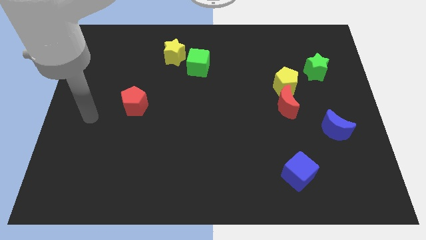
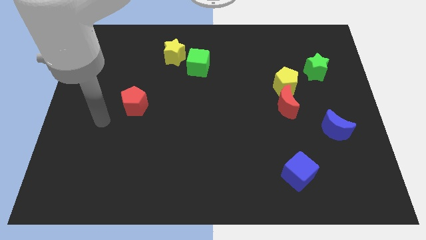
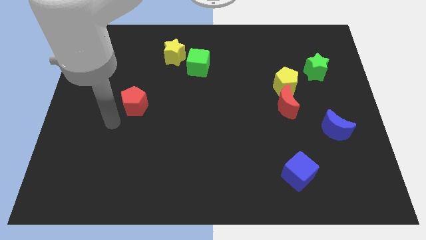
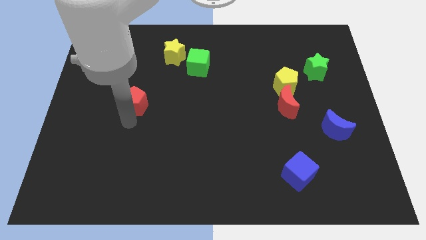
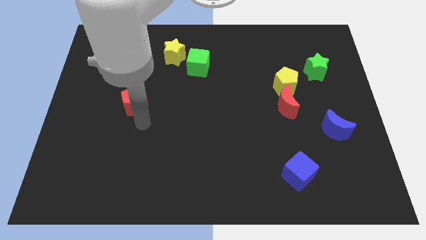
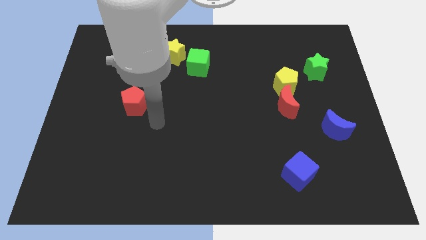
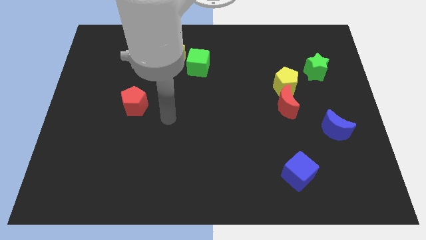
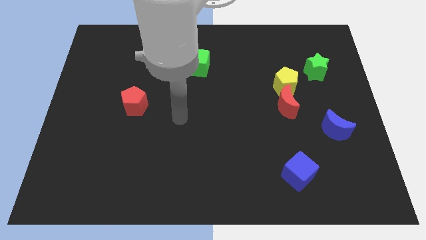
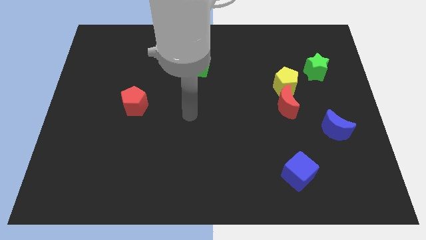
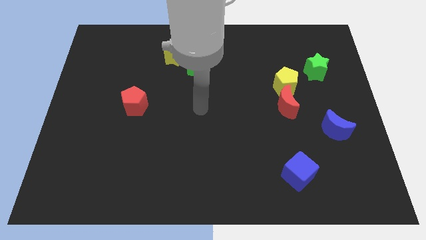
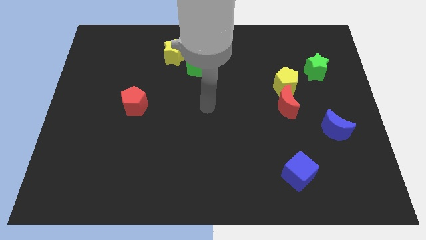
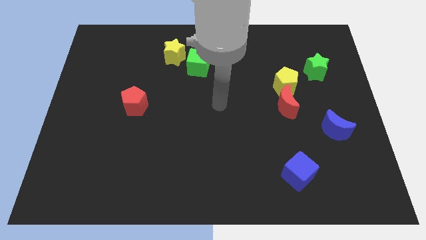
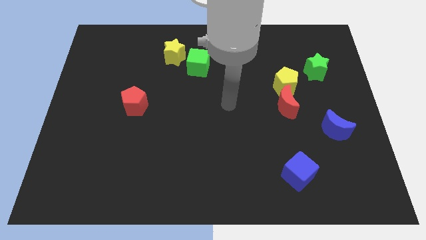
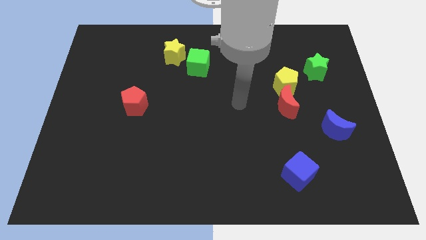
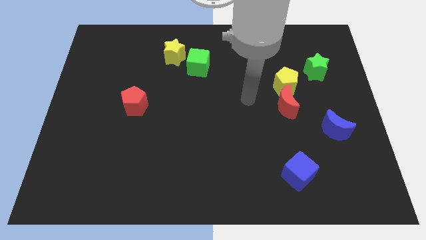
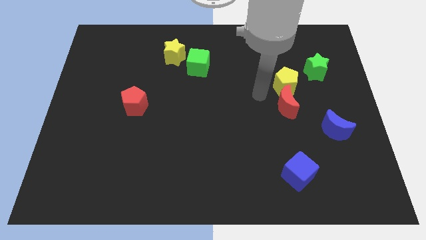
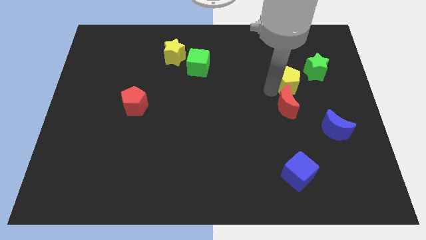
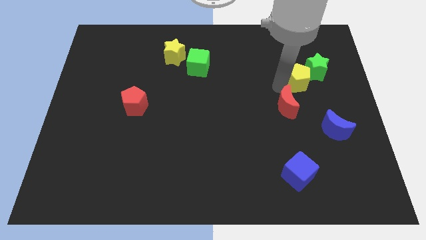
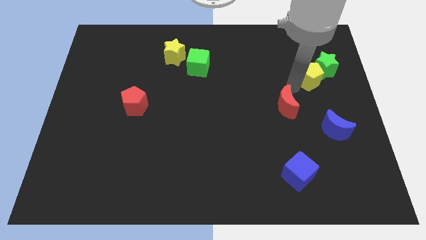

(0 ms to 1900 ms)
pull the red moon apart from the yellow pentagon

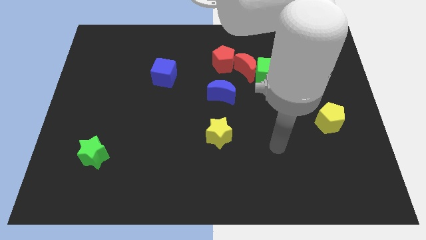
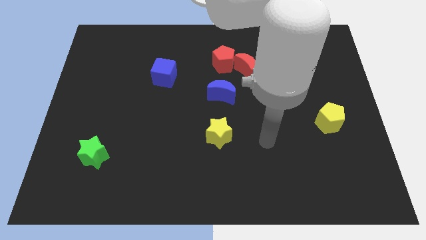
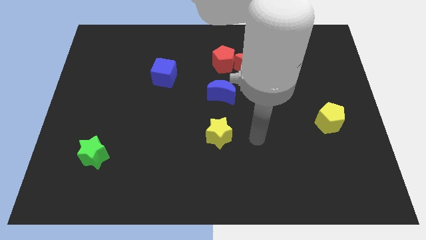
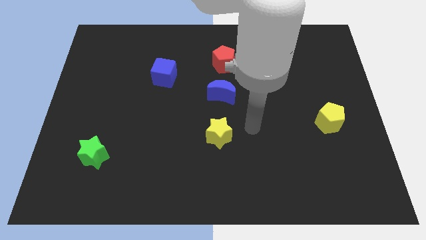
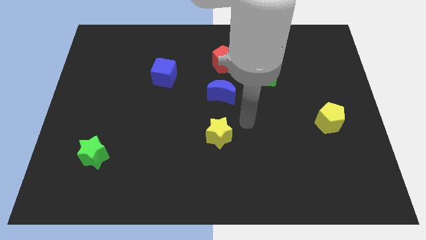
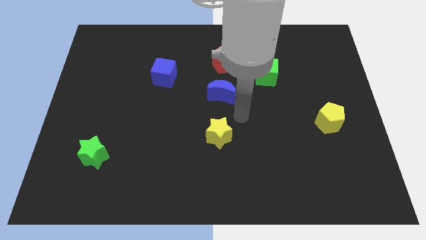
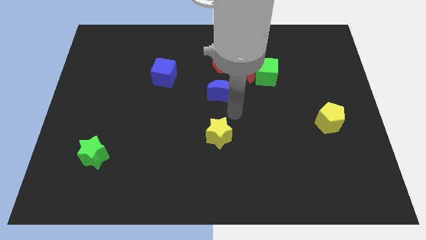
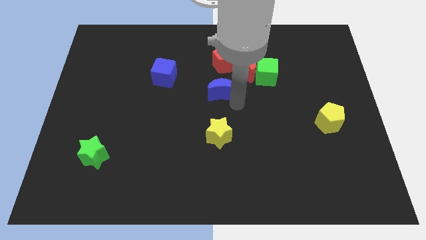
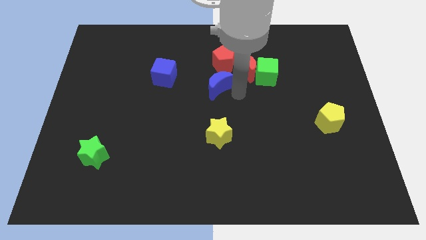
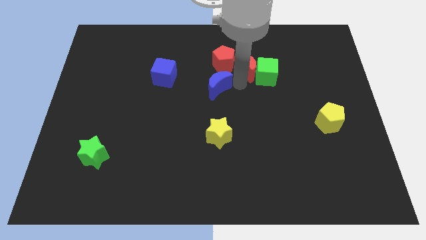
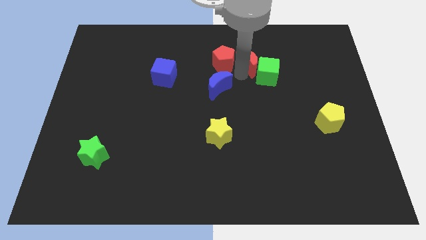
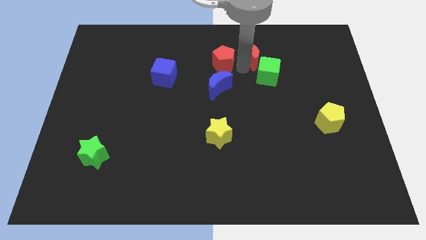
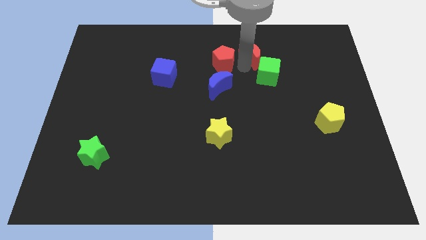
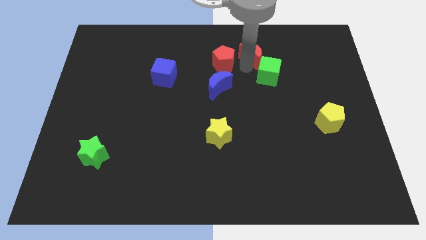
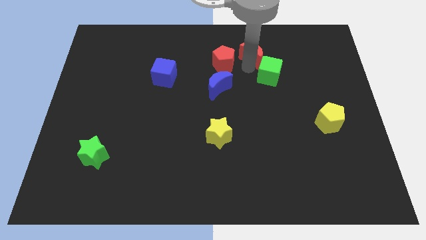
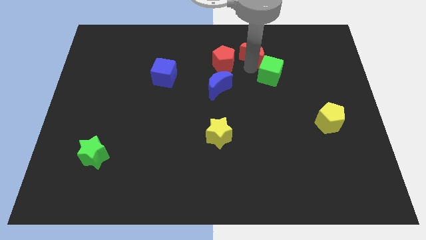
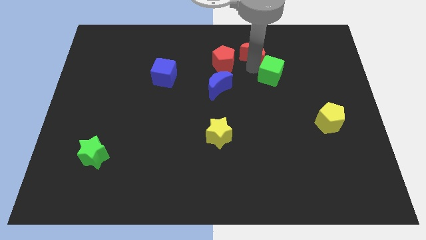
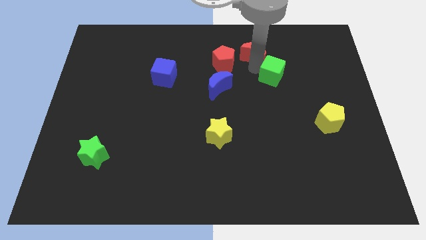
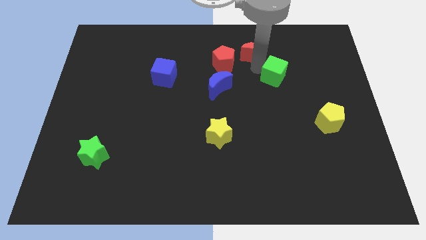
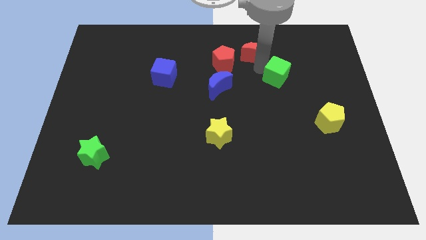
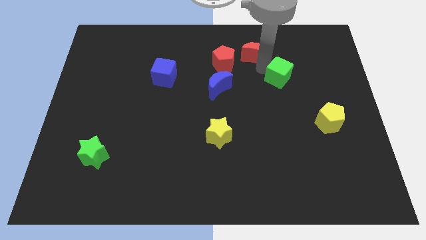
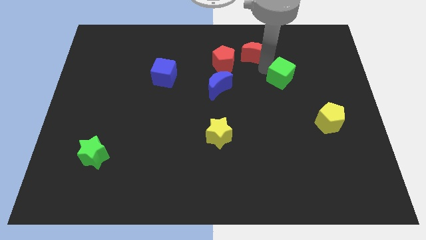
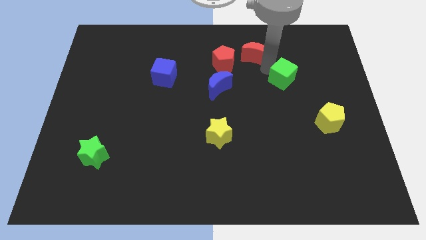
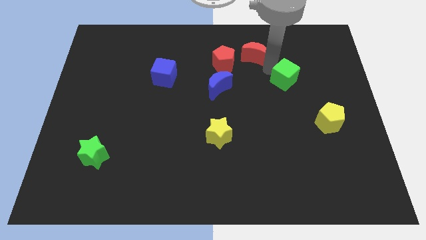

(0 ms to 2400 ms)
pull the green cube apart from the red moon

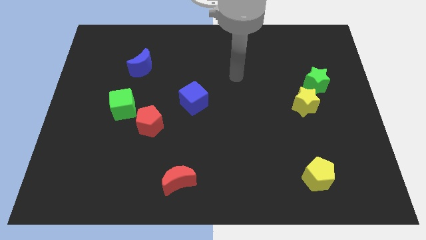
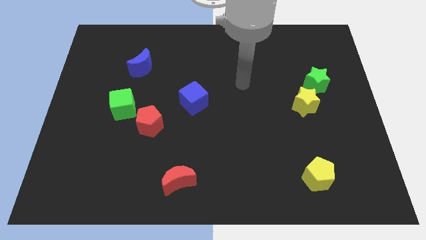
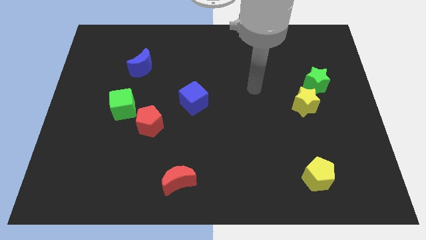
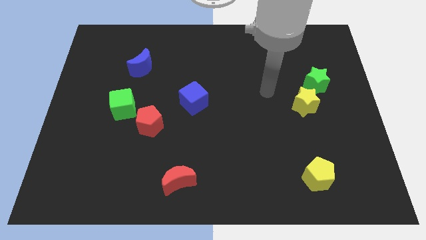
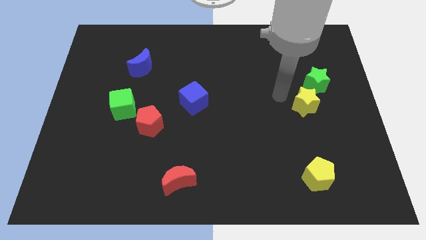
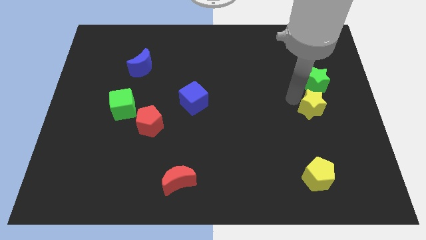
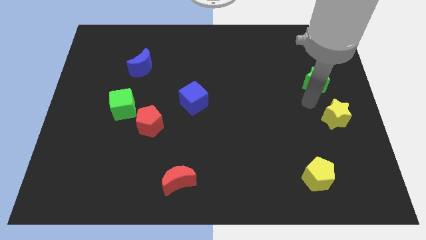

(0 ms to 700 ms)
separate the green star from the yellow star

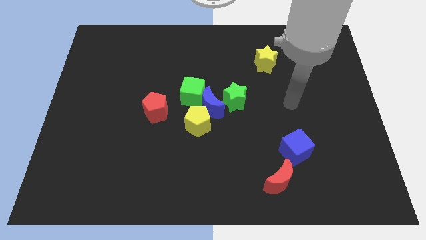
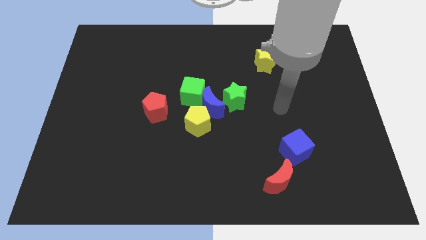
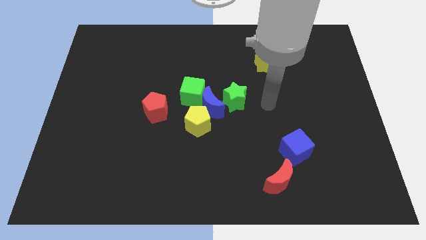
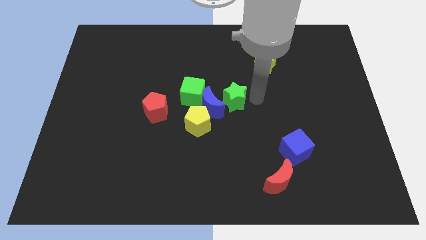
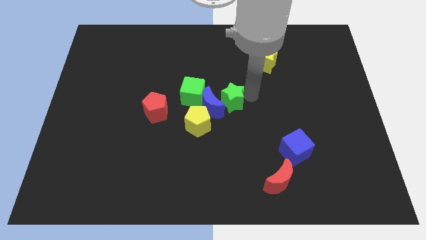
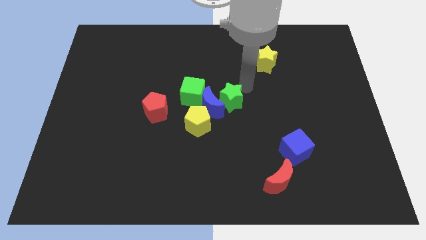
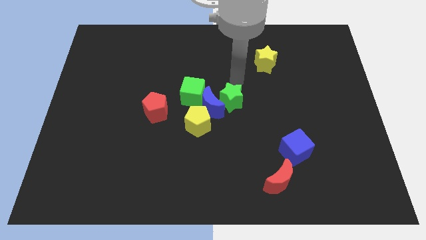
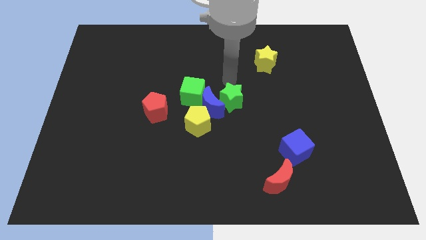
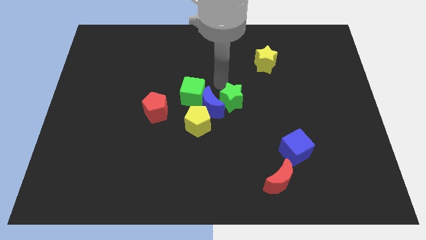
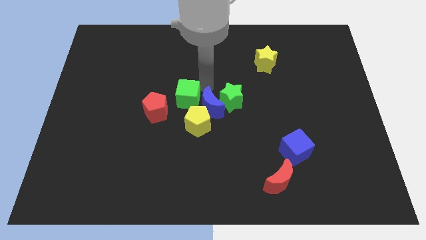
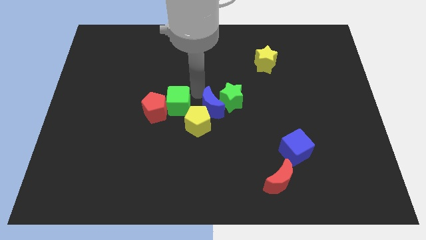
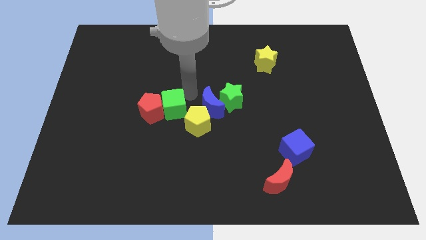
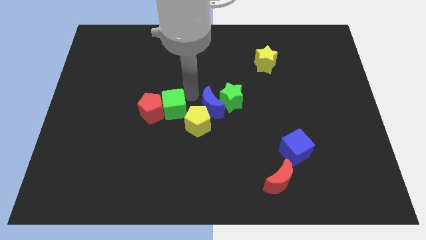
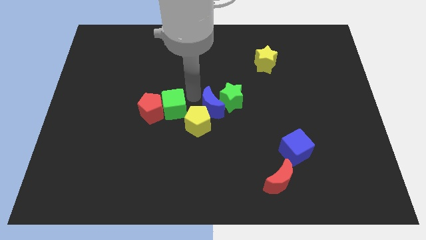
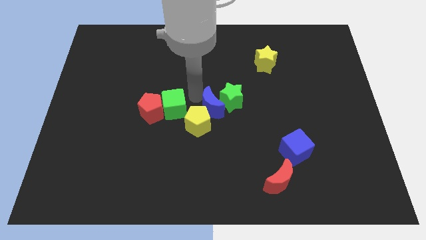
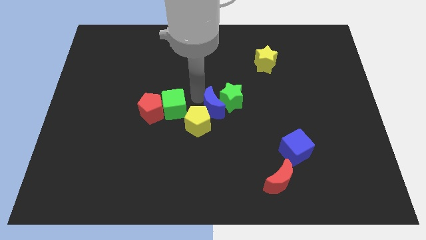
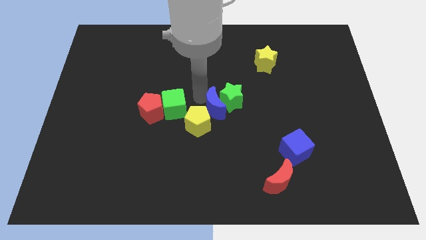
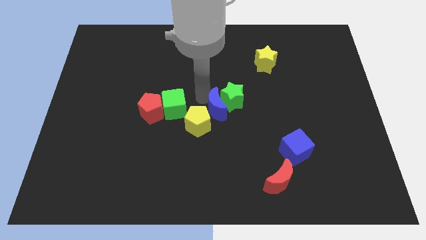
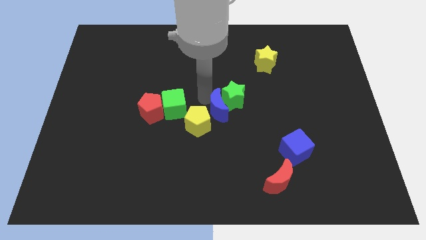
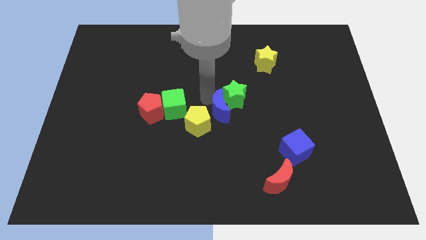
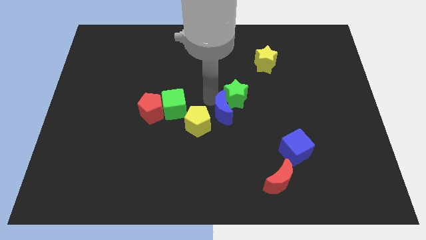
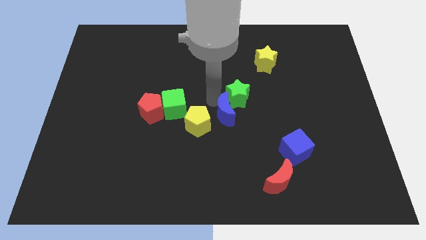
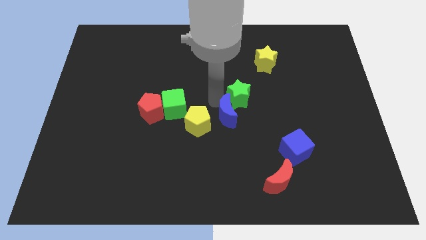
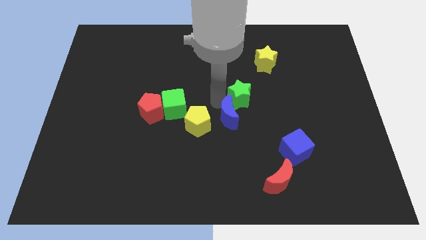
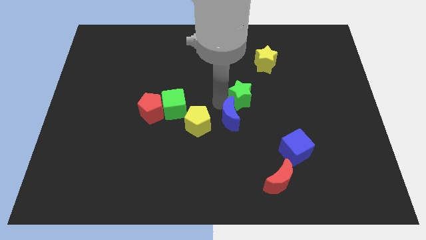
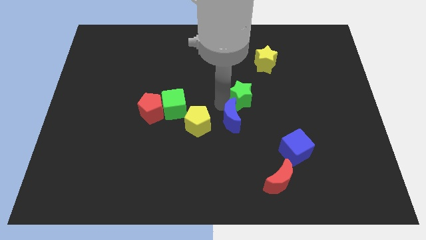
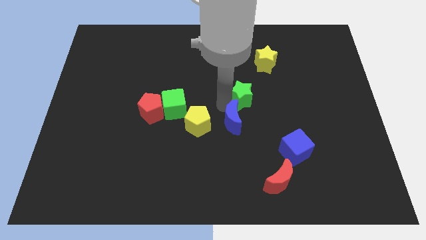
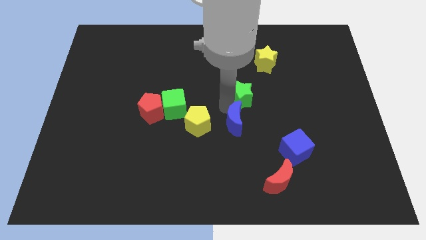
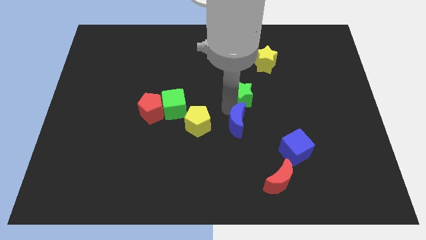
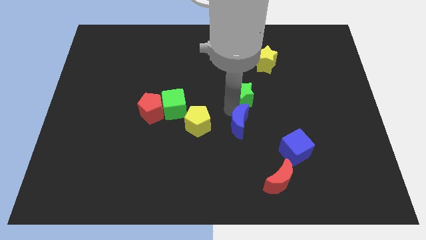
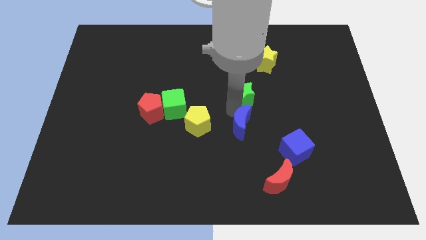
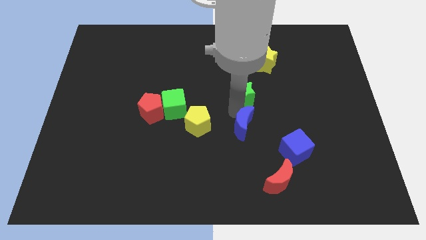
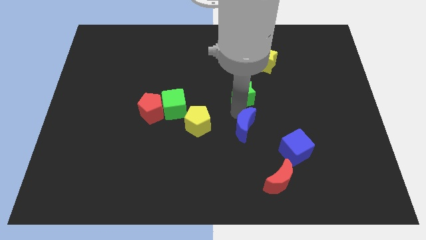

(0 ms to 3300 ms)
pull the blue moon apart from the yellow pentagon, green cube, and green star

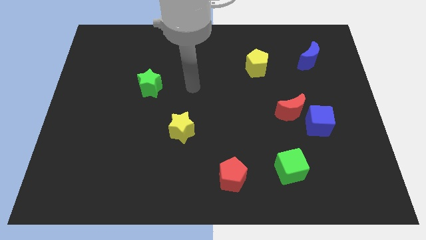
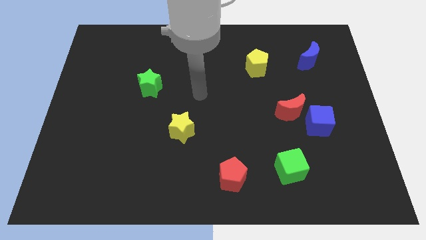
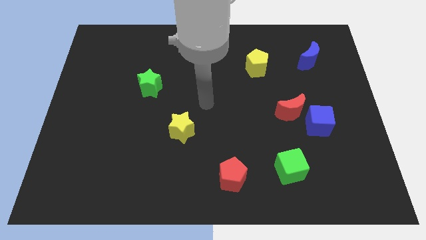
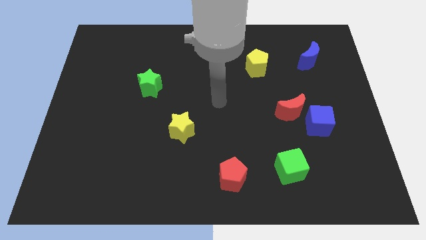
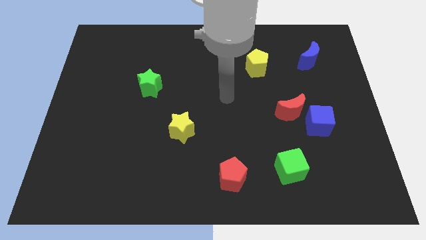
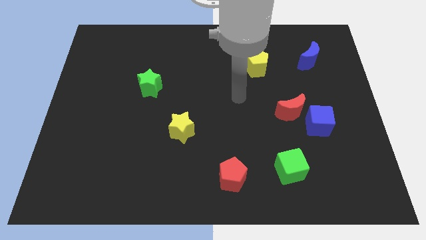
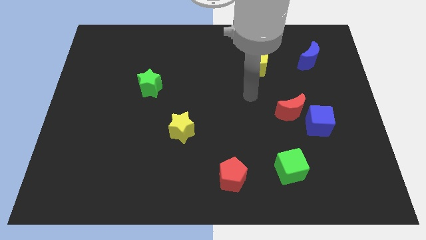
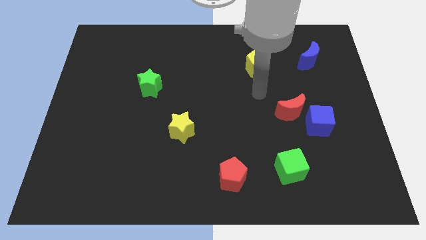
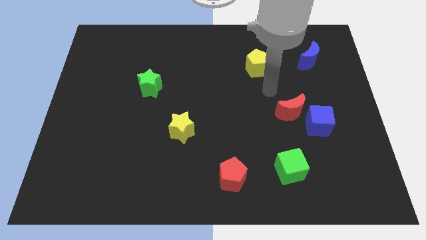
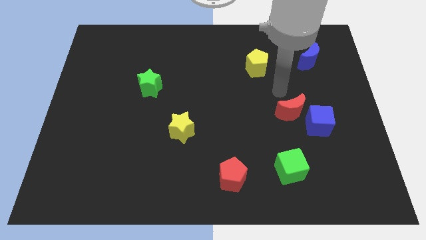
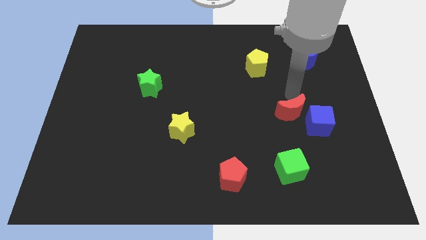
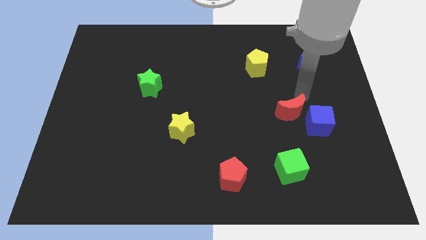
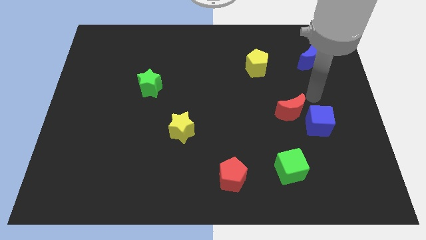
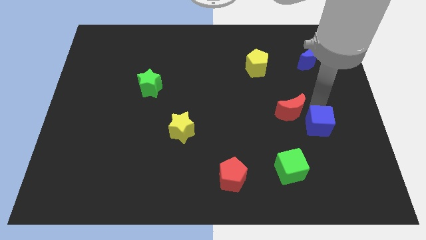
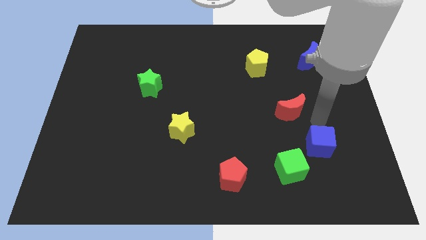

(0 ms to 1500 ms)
move the red moon away from the blue cube
